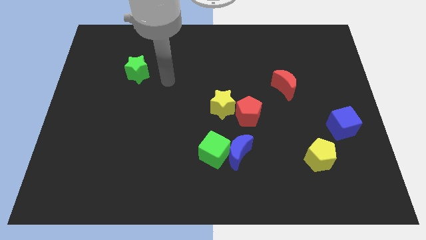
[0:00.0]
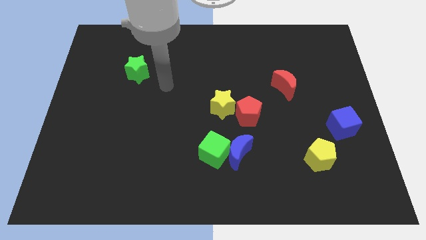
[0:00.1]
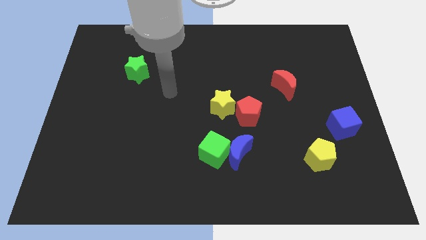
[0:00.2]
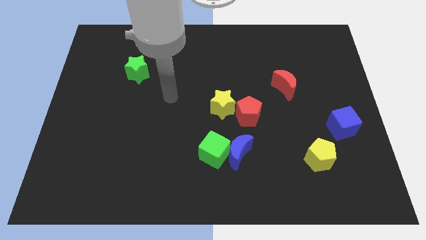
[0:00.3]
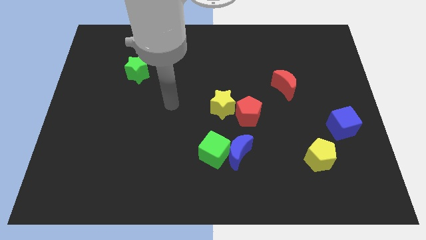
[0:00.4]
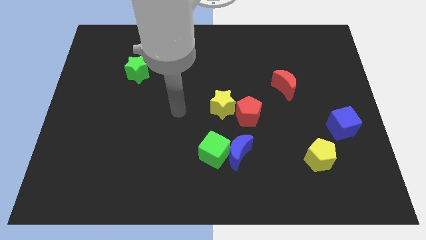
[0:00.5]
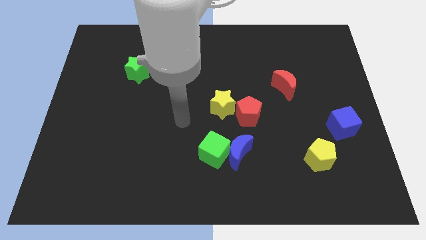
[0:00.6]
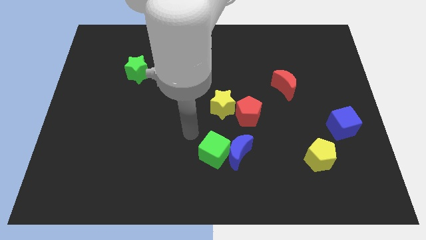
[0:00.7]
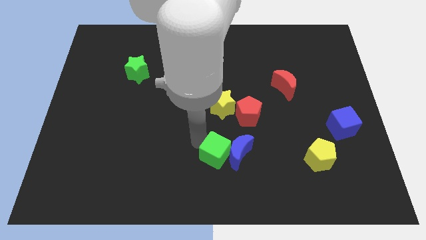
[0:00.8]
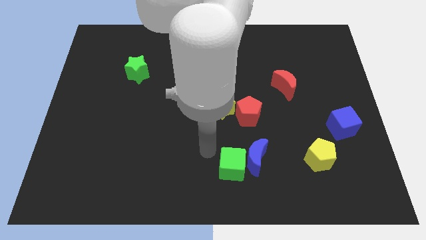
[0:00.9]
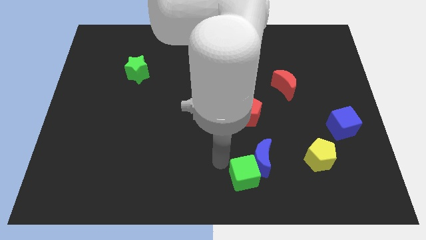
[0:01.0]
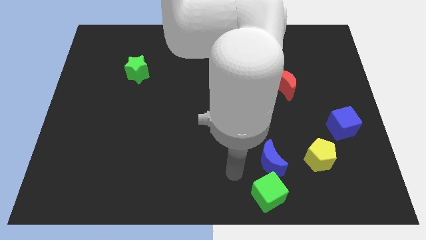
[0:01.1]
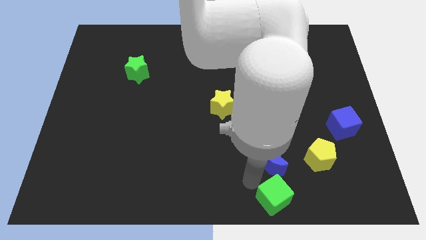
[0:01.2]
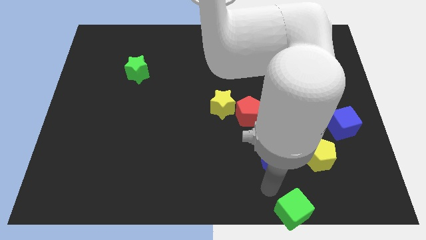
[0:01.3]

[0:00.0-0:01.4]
separate the blue moon from the green cube

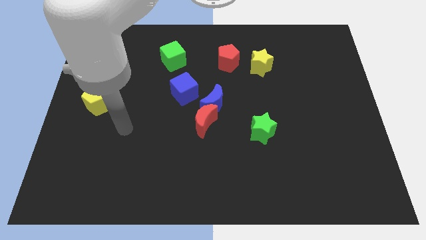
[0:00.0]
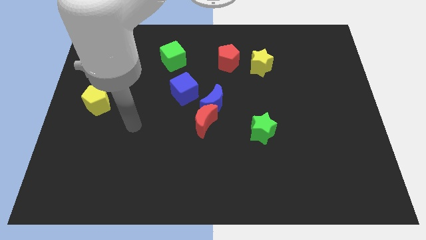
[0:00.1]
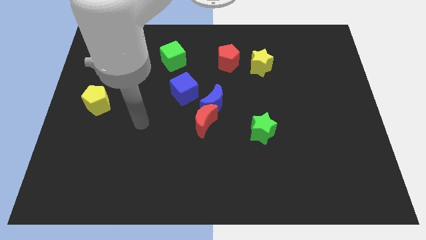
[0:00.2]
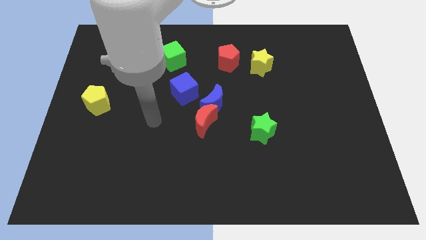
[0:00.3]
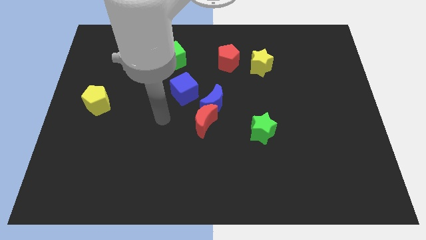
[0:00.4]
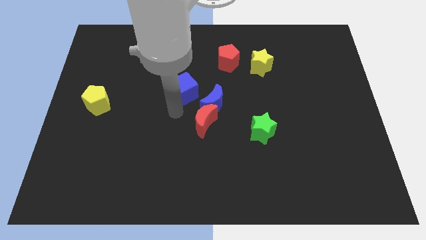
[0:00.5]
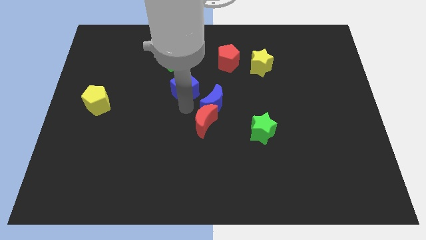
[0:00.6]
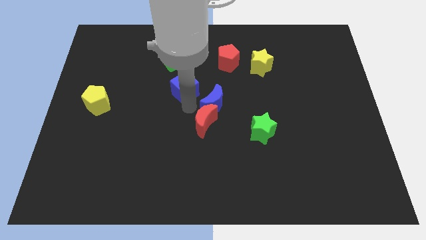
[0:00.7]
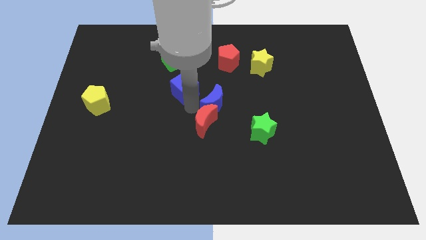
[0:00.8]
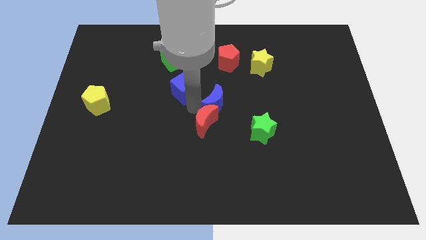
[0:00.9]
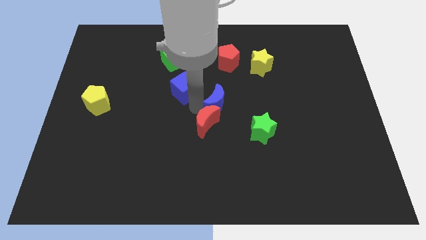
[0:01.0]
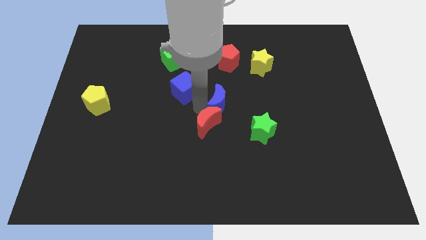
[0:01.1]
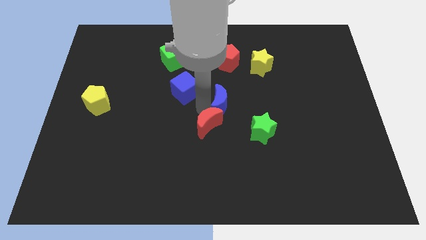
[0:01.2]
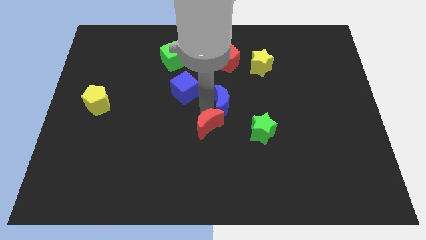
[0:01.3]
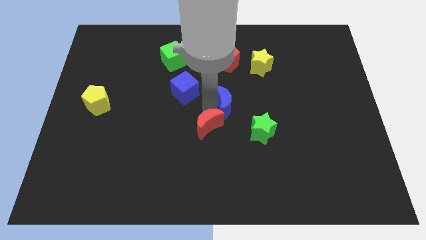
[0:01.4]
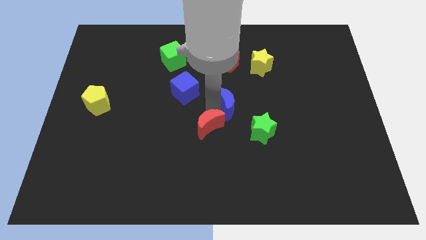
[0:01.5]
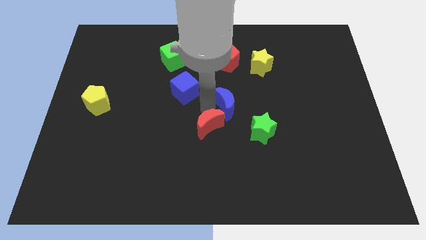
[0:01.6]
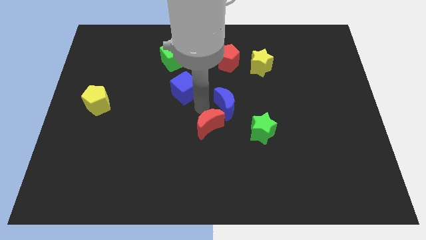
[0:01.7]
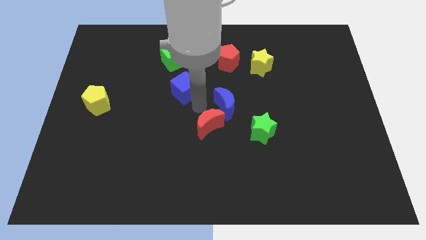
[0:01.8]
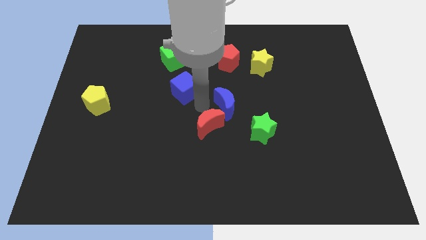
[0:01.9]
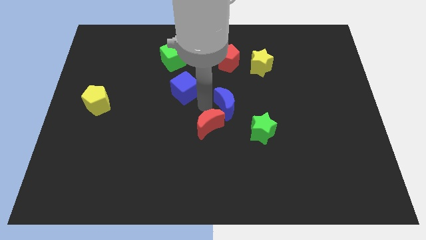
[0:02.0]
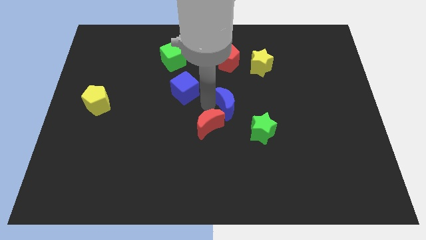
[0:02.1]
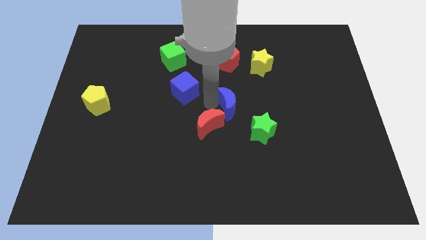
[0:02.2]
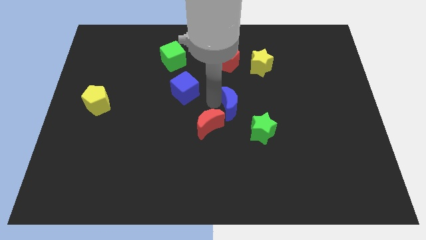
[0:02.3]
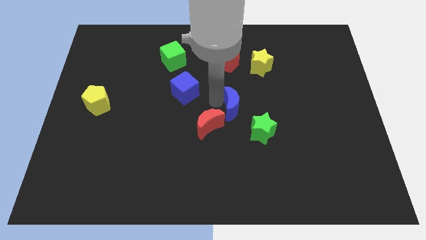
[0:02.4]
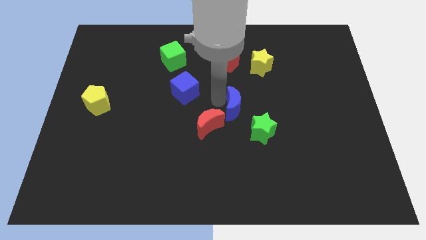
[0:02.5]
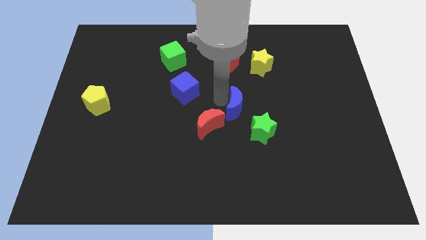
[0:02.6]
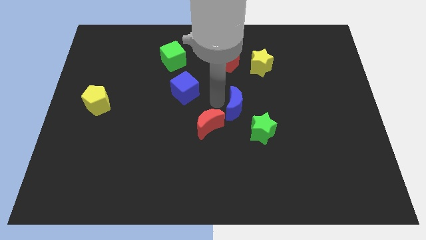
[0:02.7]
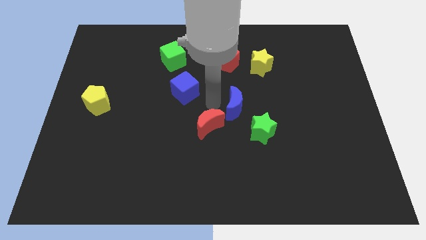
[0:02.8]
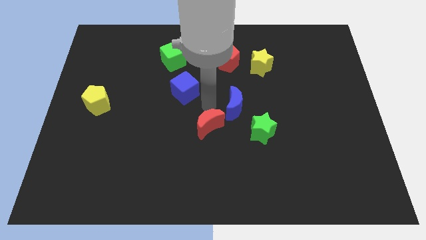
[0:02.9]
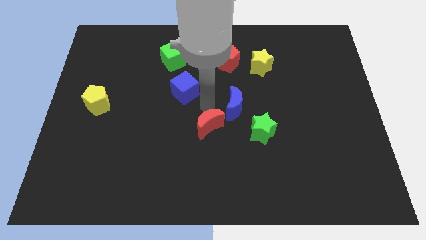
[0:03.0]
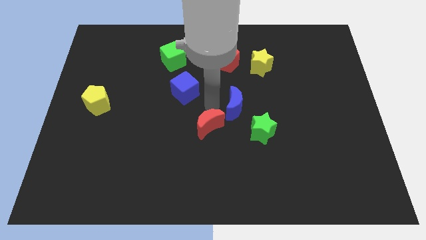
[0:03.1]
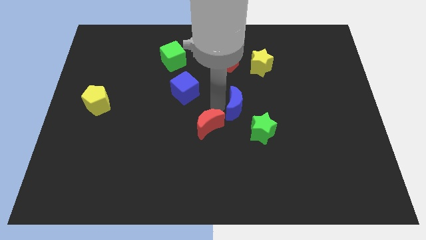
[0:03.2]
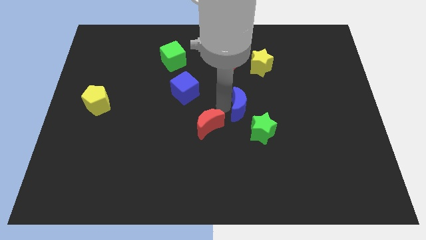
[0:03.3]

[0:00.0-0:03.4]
separate the blue moon from the red moon and blue cube

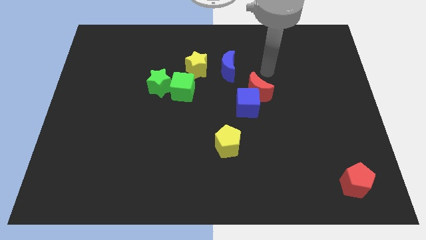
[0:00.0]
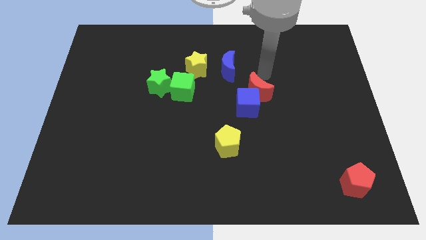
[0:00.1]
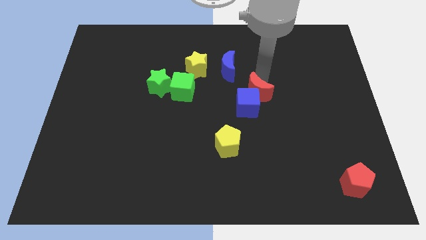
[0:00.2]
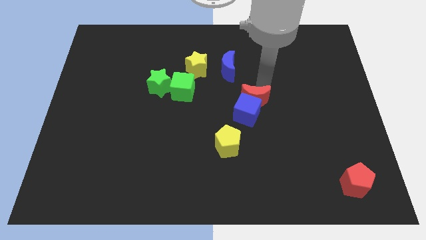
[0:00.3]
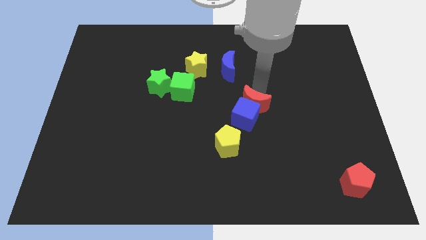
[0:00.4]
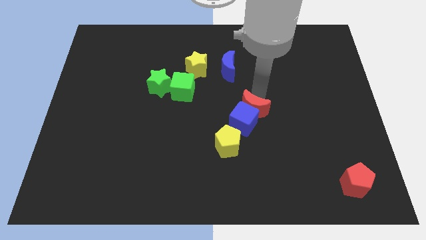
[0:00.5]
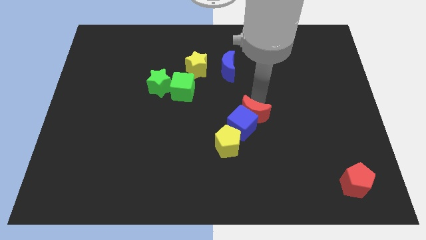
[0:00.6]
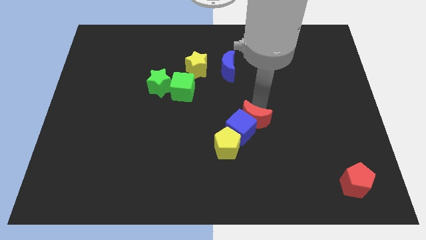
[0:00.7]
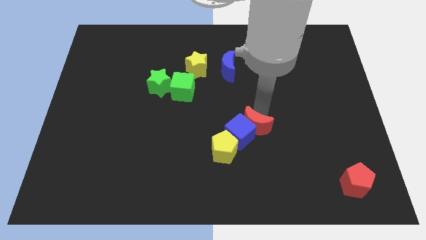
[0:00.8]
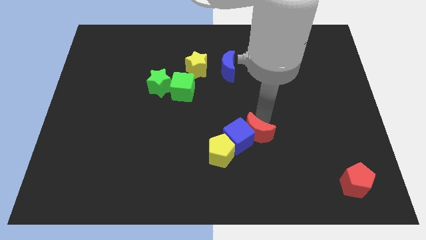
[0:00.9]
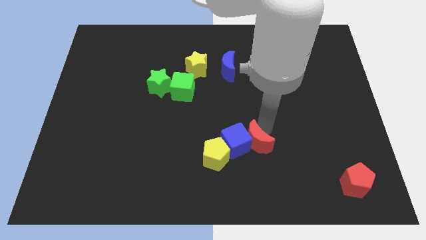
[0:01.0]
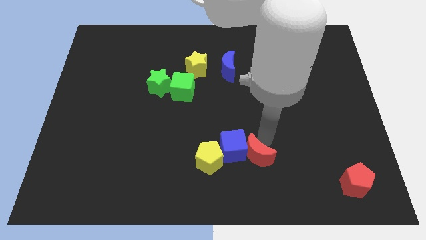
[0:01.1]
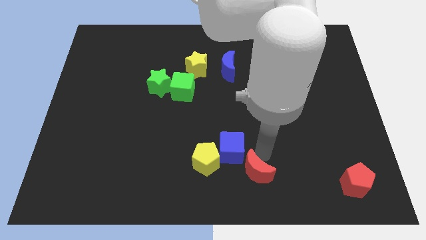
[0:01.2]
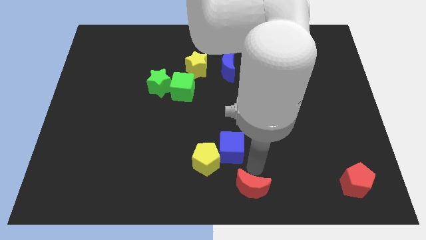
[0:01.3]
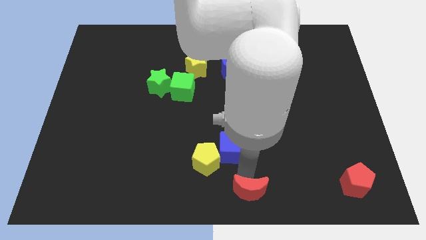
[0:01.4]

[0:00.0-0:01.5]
separate the blue cube from the red moon

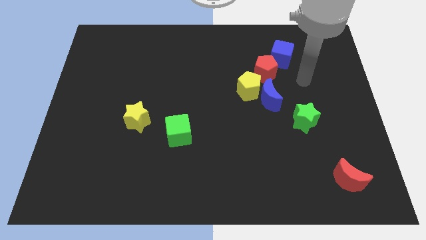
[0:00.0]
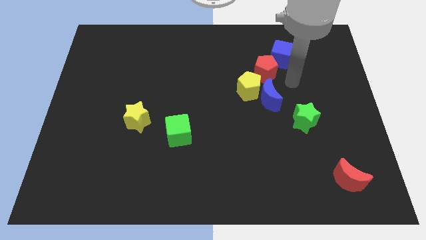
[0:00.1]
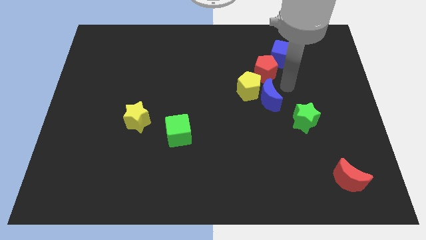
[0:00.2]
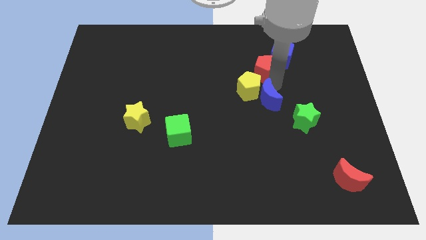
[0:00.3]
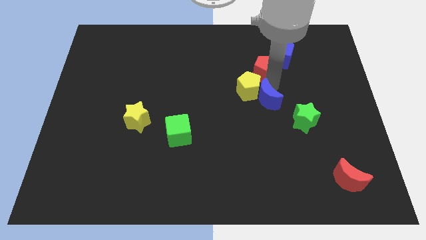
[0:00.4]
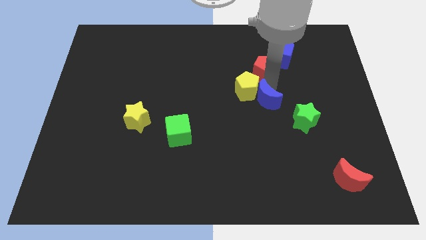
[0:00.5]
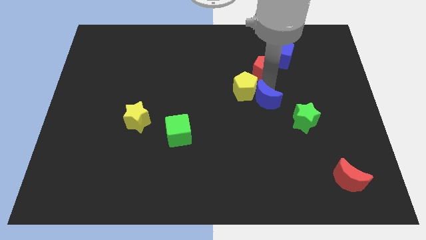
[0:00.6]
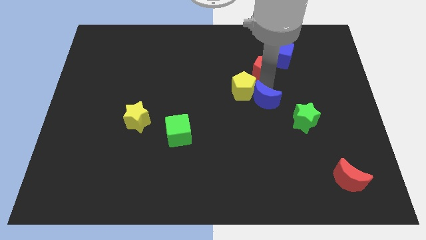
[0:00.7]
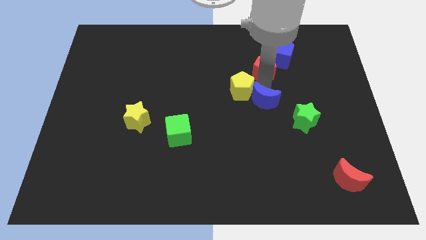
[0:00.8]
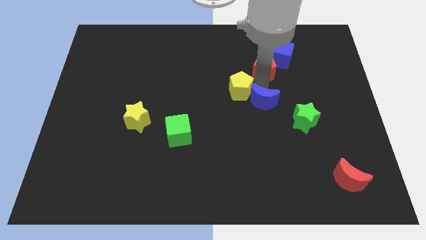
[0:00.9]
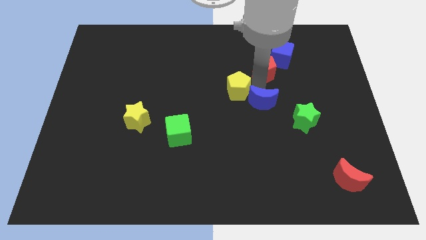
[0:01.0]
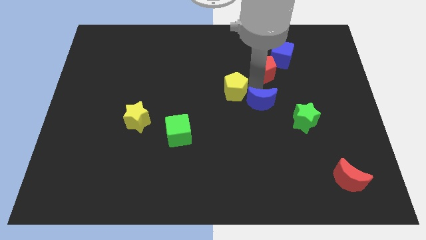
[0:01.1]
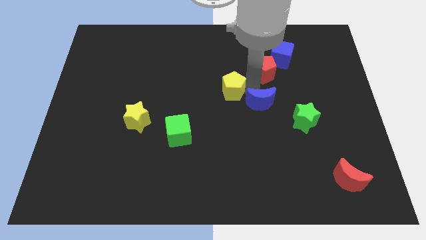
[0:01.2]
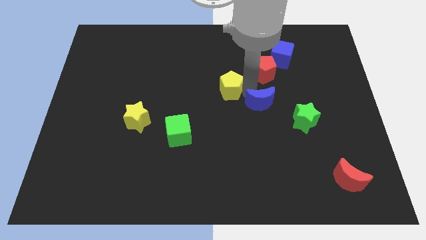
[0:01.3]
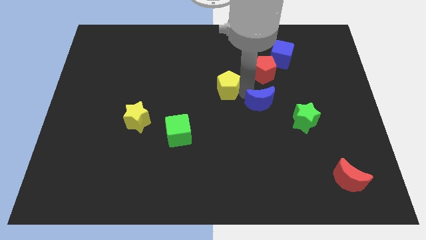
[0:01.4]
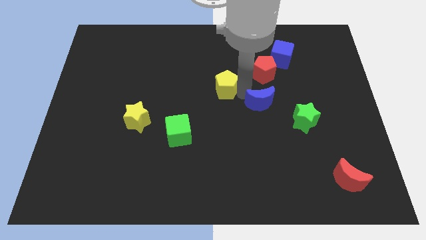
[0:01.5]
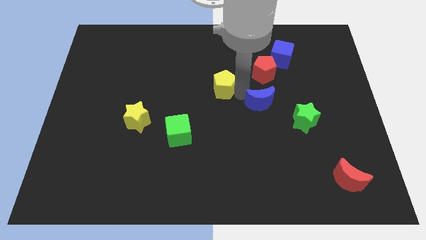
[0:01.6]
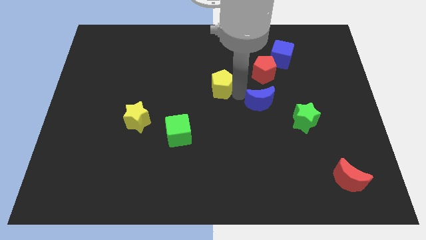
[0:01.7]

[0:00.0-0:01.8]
separate the yellow pentagon from the blue moon and red pentagon

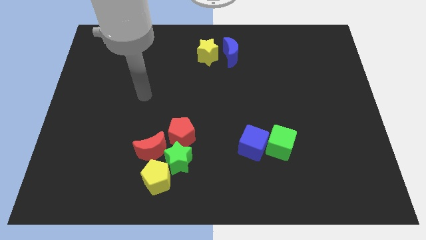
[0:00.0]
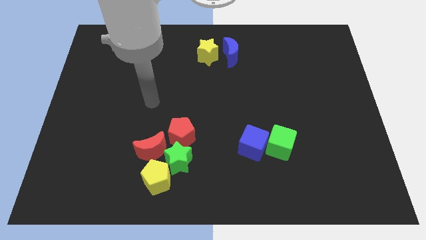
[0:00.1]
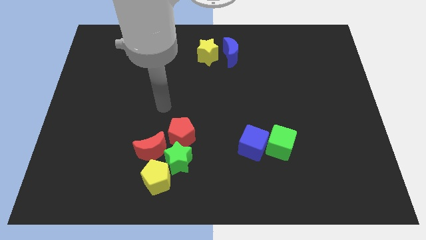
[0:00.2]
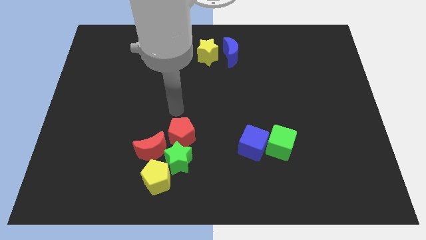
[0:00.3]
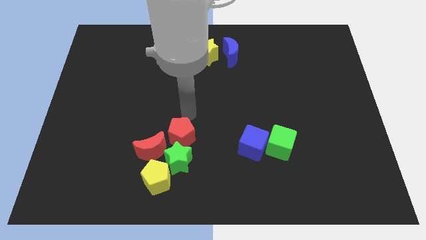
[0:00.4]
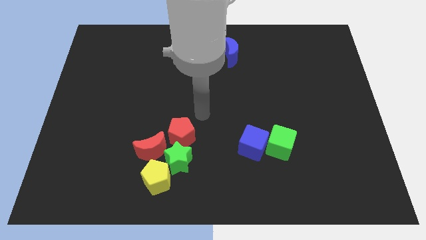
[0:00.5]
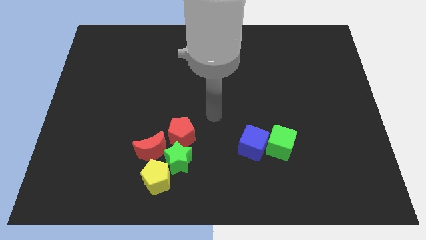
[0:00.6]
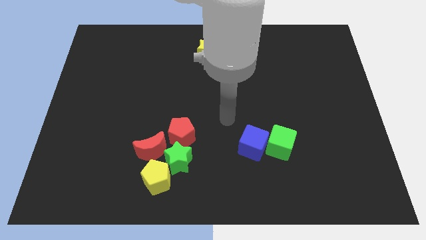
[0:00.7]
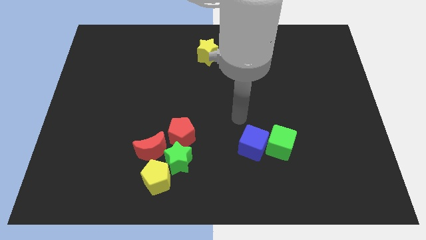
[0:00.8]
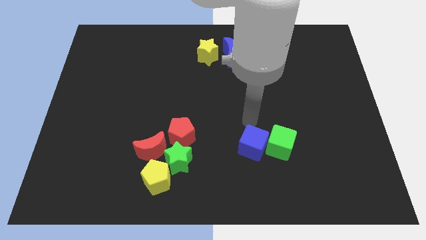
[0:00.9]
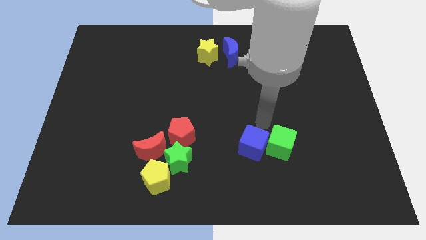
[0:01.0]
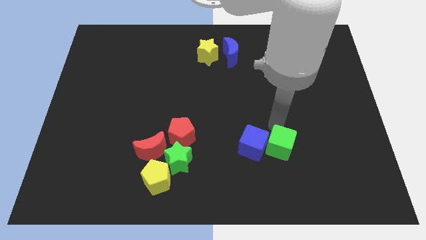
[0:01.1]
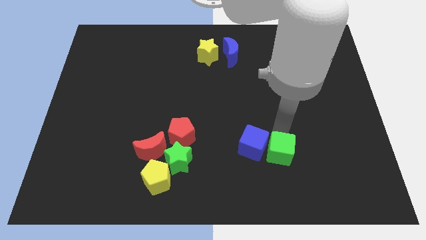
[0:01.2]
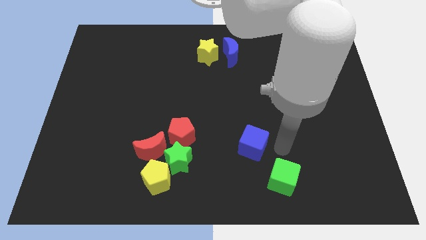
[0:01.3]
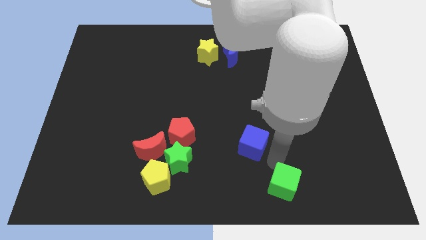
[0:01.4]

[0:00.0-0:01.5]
separate the blue cube from the green cube
